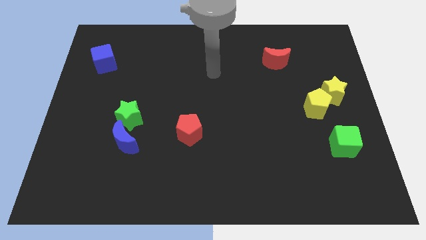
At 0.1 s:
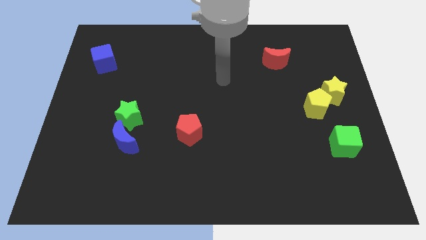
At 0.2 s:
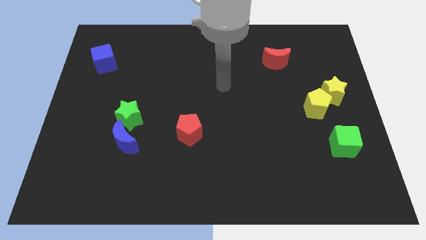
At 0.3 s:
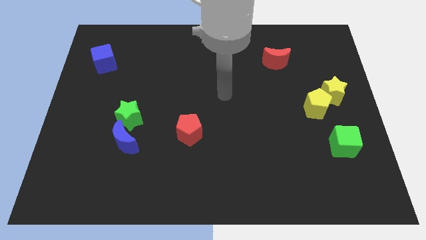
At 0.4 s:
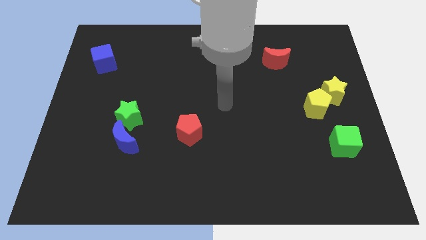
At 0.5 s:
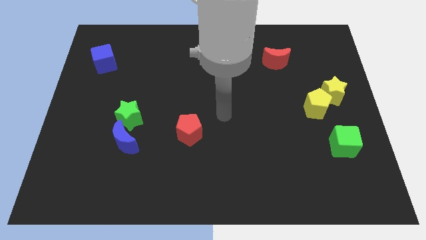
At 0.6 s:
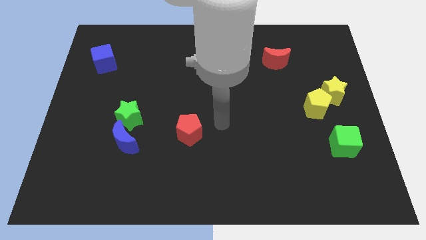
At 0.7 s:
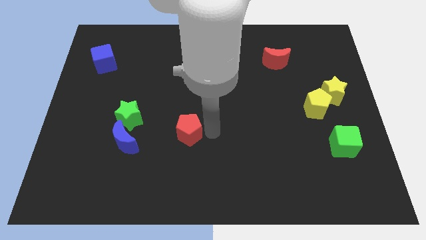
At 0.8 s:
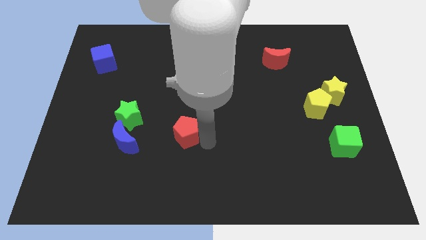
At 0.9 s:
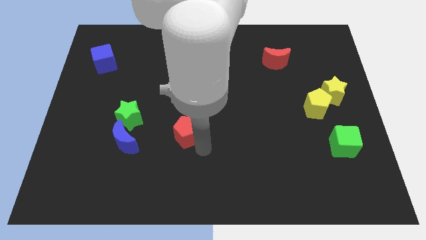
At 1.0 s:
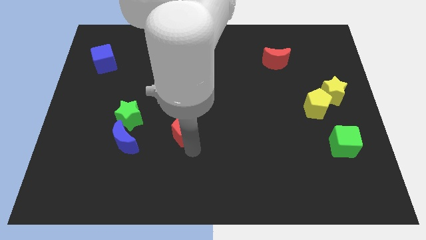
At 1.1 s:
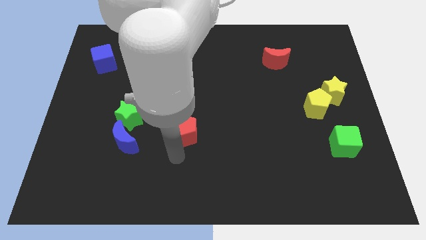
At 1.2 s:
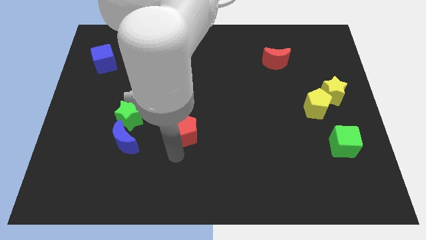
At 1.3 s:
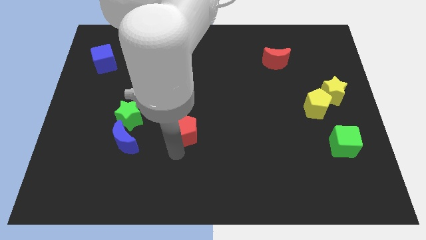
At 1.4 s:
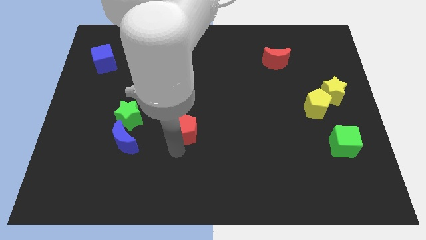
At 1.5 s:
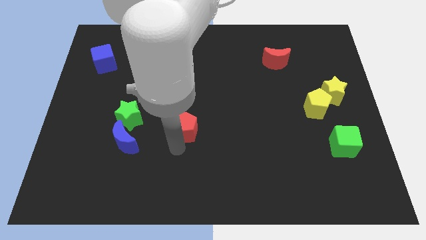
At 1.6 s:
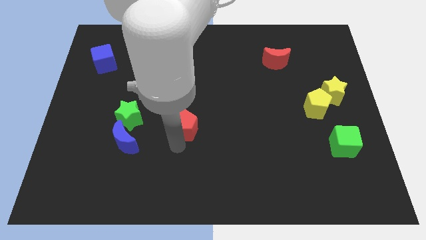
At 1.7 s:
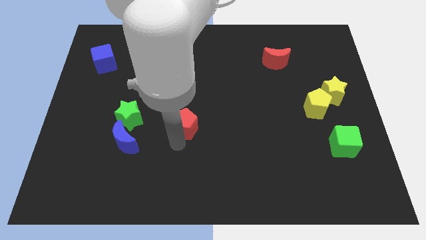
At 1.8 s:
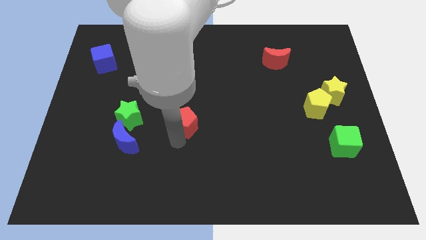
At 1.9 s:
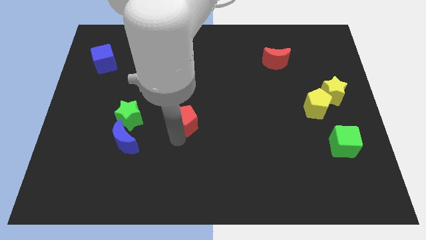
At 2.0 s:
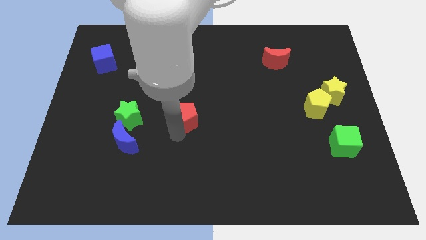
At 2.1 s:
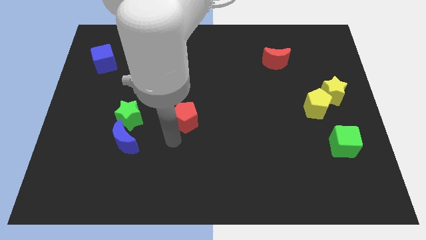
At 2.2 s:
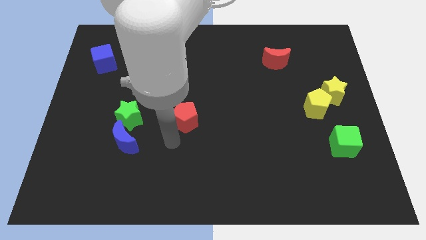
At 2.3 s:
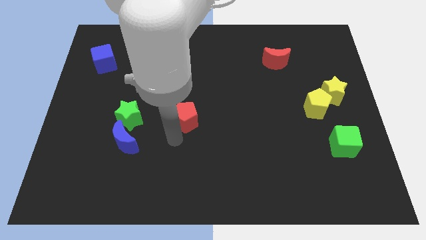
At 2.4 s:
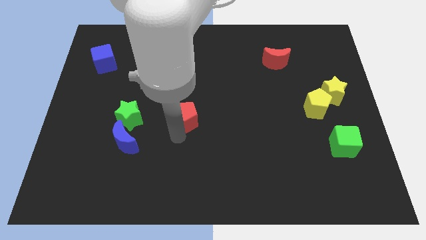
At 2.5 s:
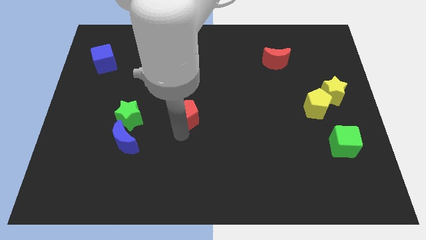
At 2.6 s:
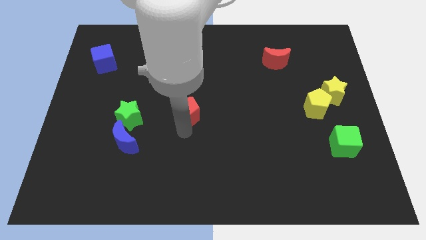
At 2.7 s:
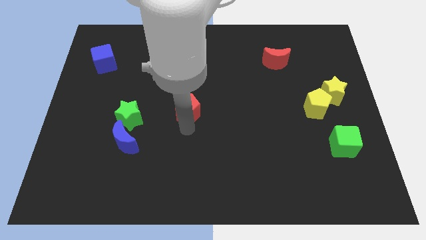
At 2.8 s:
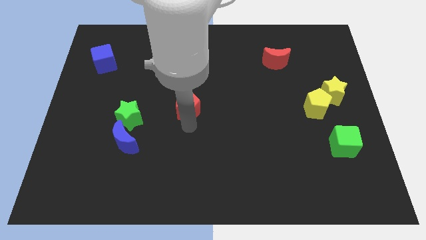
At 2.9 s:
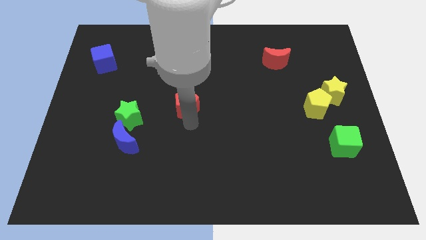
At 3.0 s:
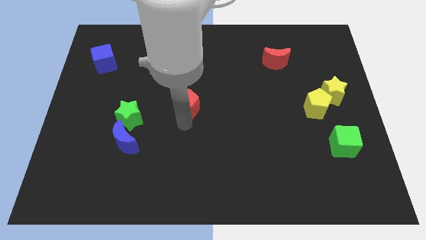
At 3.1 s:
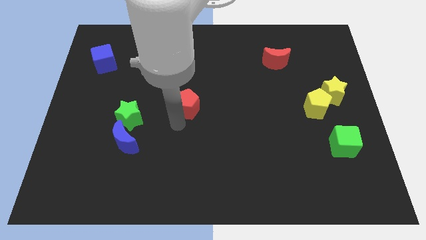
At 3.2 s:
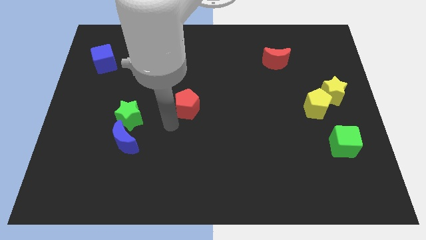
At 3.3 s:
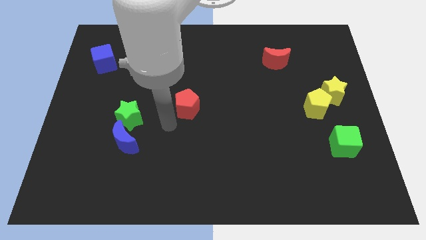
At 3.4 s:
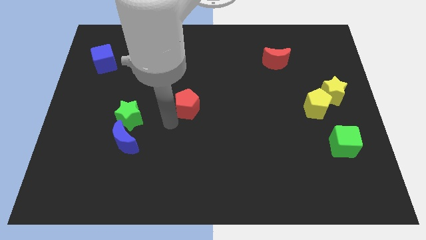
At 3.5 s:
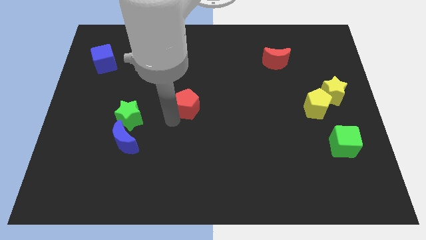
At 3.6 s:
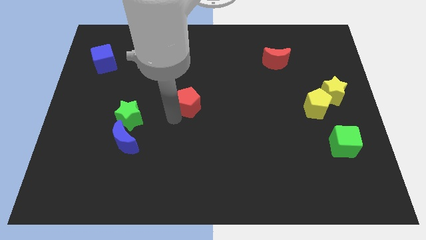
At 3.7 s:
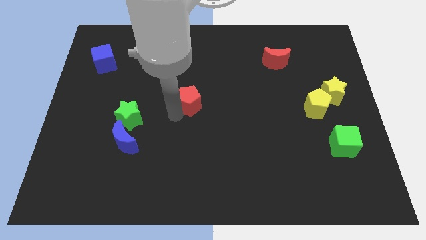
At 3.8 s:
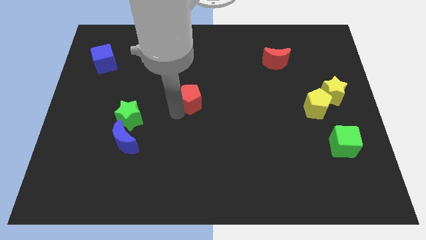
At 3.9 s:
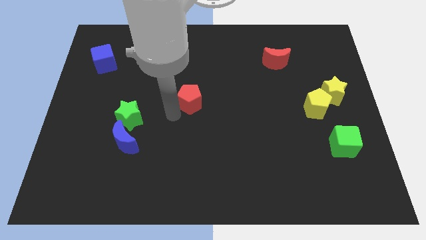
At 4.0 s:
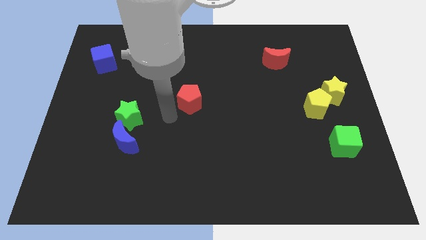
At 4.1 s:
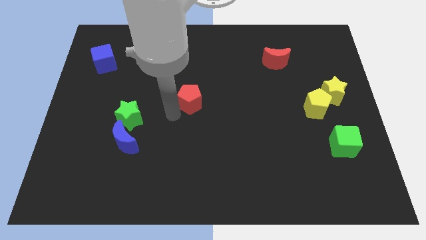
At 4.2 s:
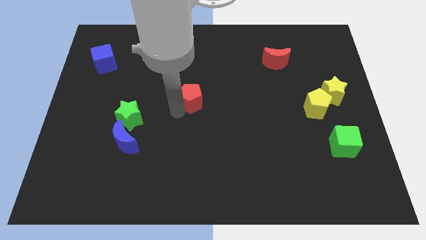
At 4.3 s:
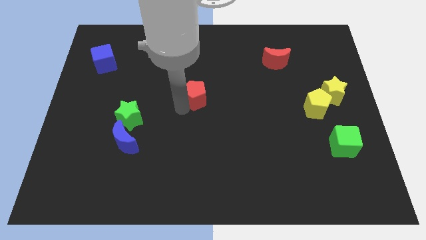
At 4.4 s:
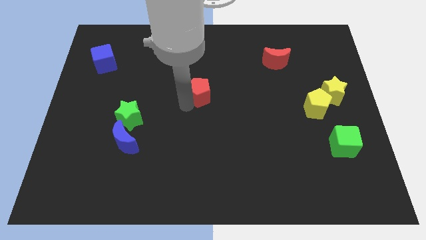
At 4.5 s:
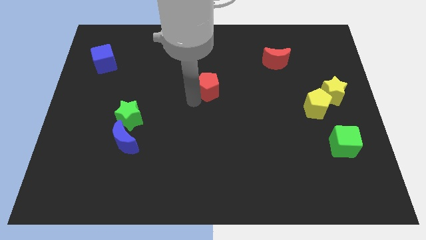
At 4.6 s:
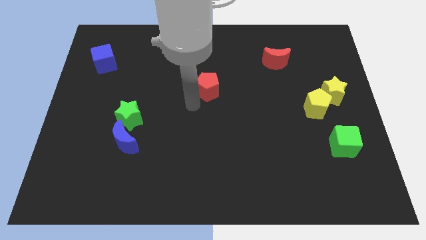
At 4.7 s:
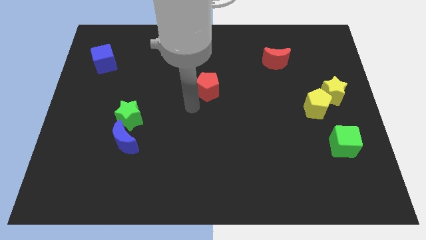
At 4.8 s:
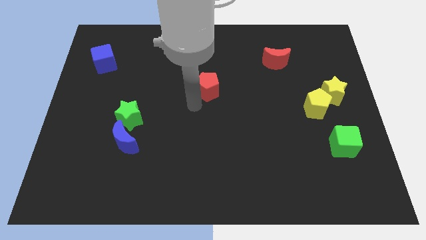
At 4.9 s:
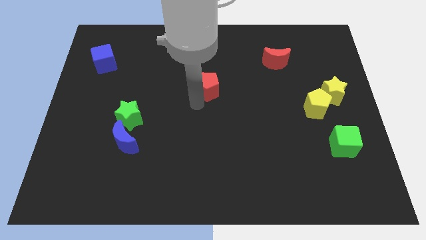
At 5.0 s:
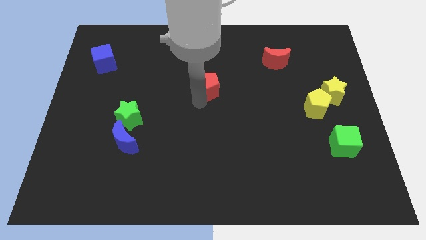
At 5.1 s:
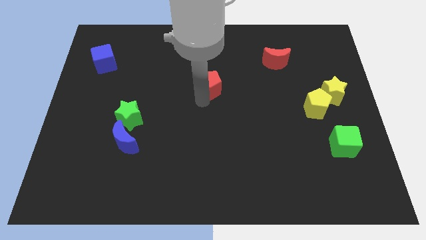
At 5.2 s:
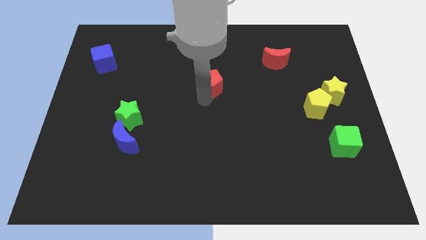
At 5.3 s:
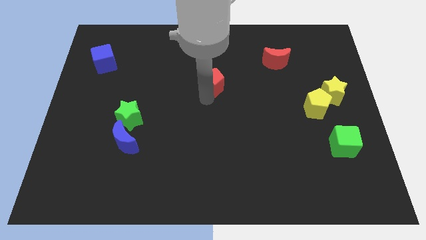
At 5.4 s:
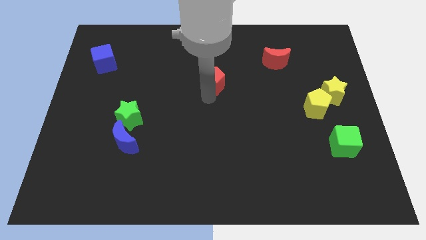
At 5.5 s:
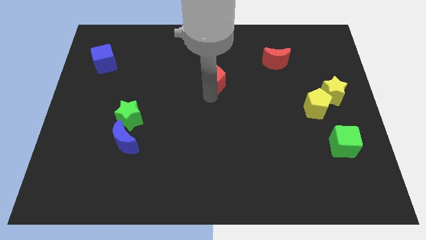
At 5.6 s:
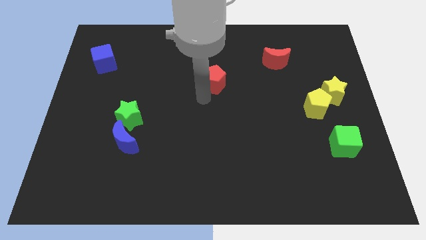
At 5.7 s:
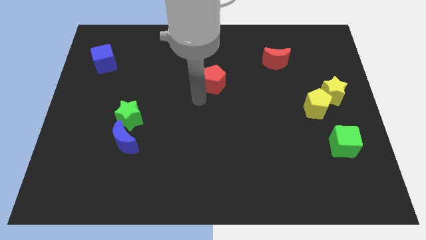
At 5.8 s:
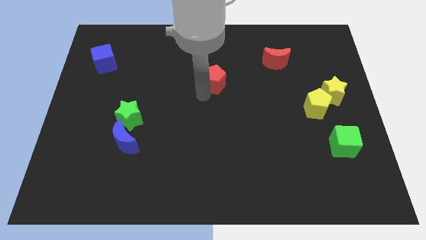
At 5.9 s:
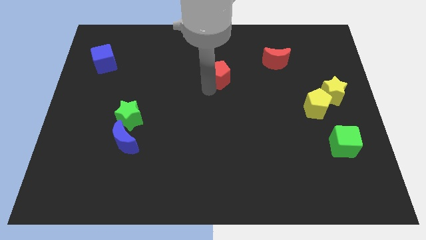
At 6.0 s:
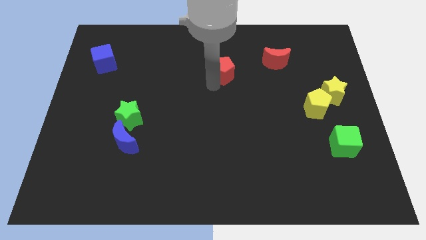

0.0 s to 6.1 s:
slide the red pentagon left of the red moon
